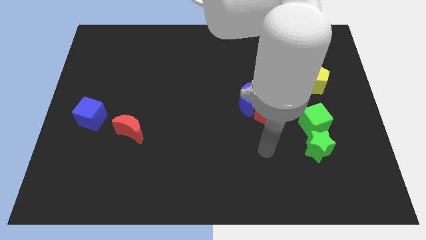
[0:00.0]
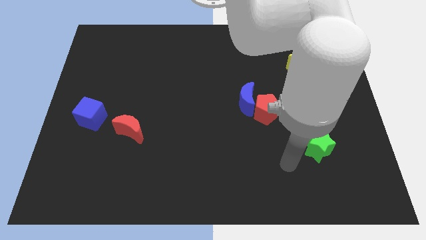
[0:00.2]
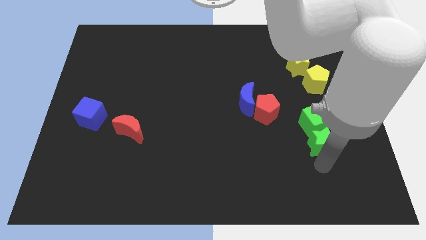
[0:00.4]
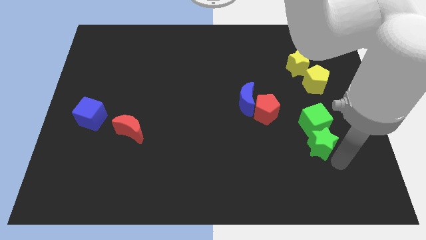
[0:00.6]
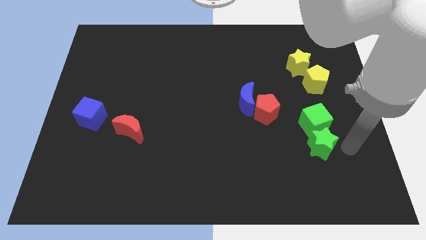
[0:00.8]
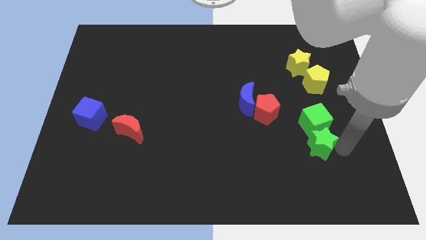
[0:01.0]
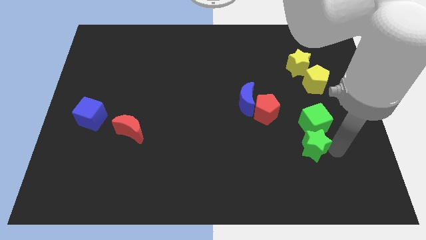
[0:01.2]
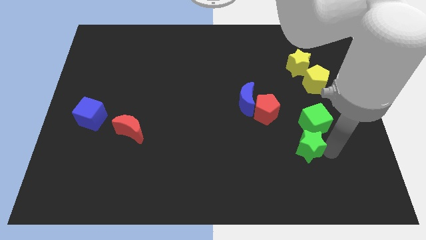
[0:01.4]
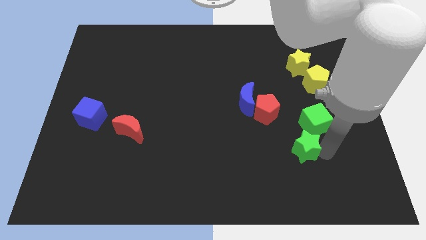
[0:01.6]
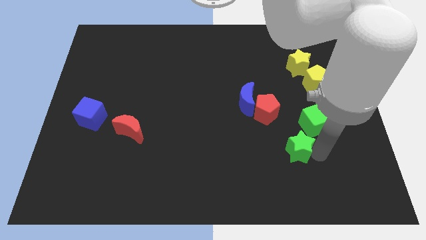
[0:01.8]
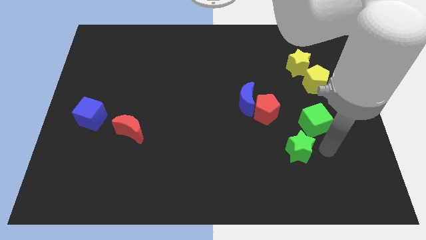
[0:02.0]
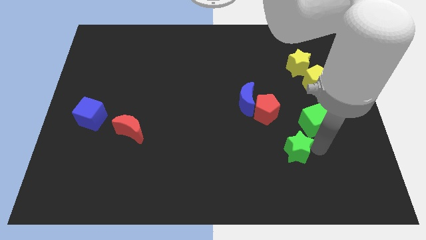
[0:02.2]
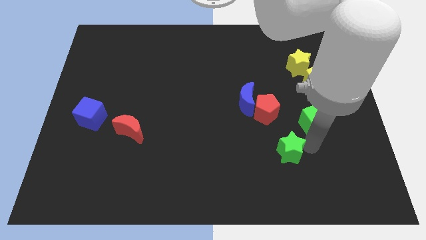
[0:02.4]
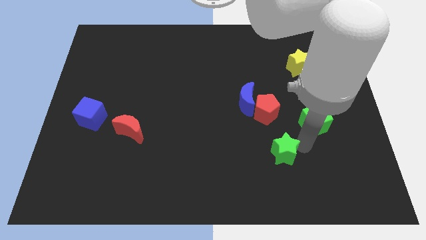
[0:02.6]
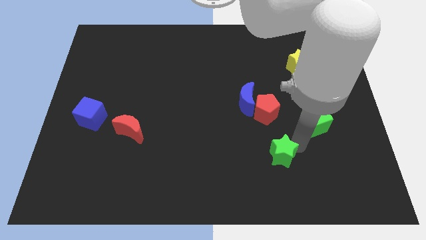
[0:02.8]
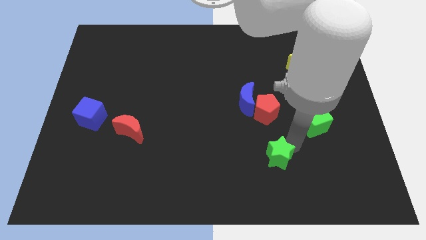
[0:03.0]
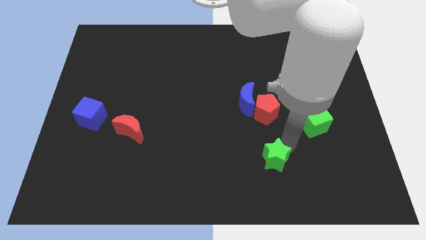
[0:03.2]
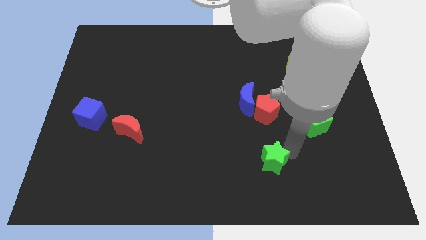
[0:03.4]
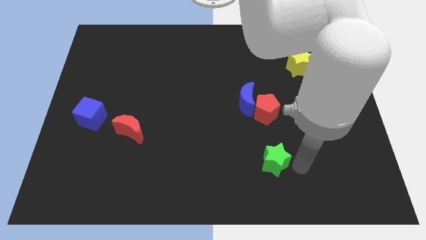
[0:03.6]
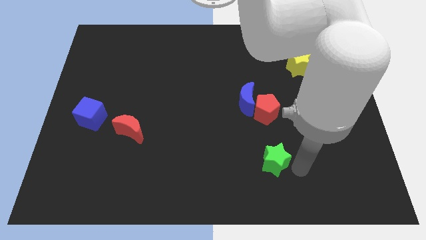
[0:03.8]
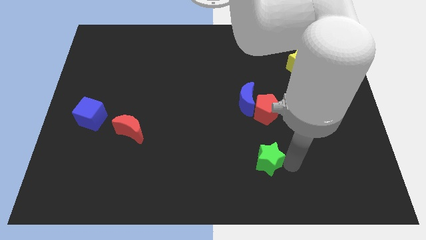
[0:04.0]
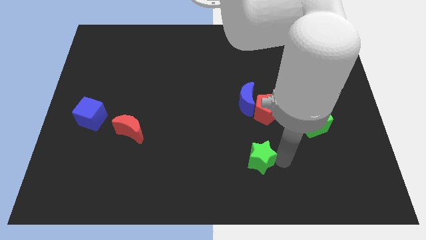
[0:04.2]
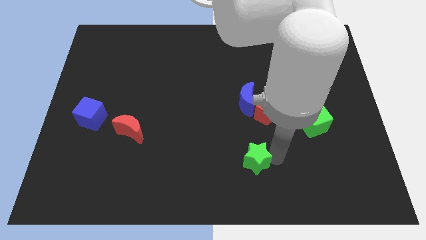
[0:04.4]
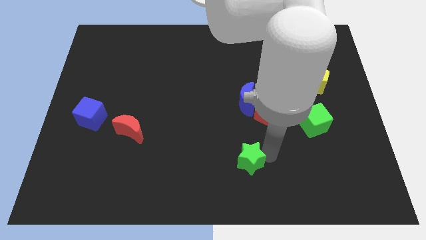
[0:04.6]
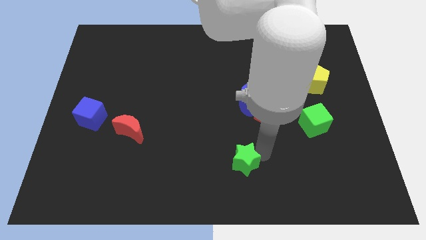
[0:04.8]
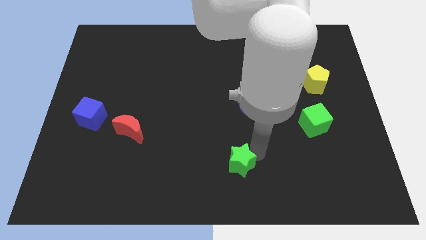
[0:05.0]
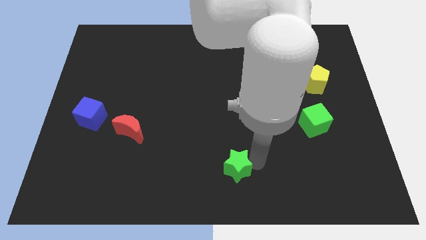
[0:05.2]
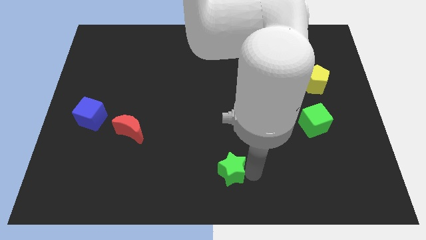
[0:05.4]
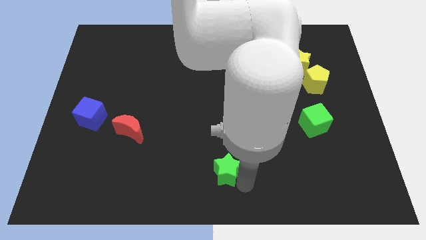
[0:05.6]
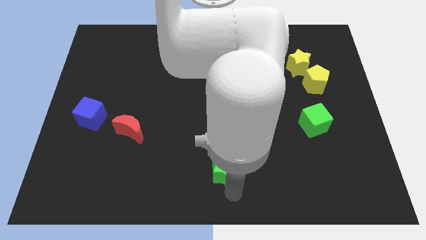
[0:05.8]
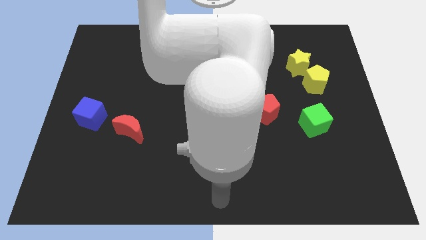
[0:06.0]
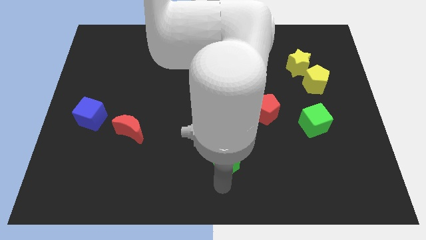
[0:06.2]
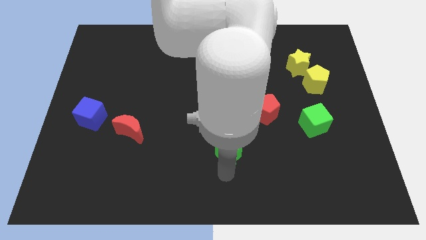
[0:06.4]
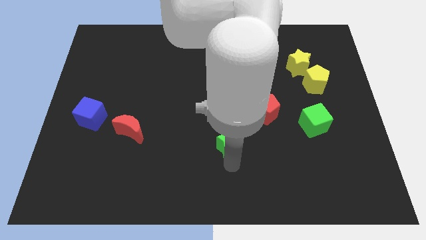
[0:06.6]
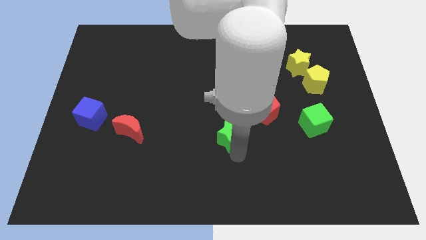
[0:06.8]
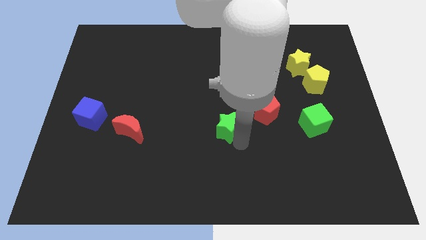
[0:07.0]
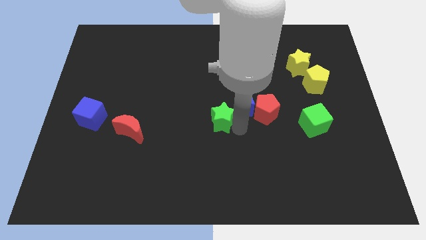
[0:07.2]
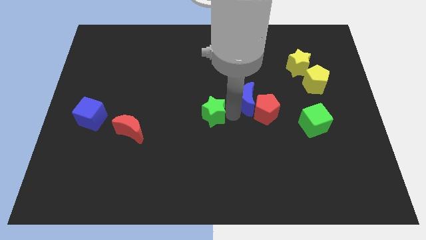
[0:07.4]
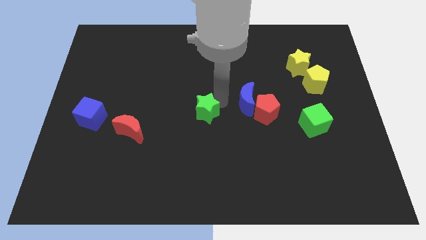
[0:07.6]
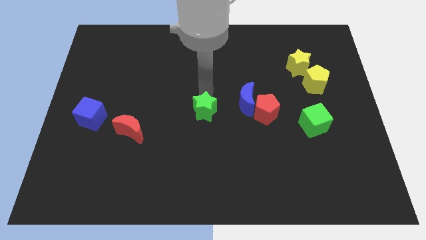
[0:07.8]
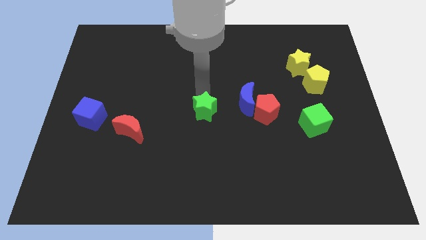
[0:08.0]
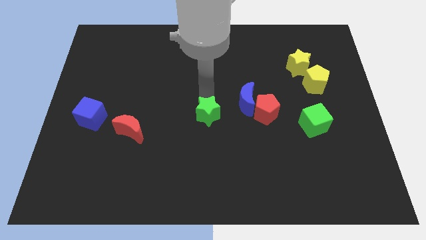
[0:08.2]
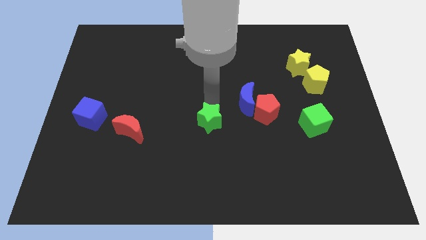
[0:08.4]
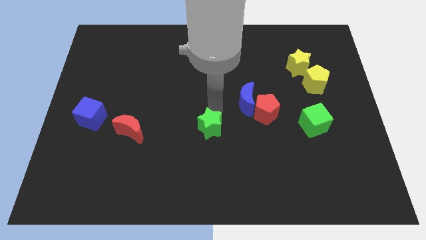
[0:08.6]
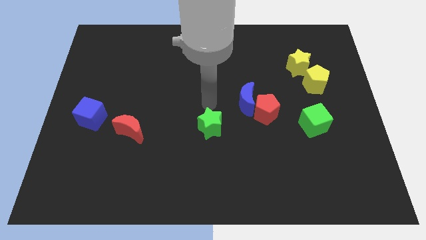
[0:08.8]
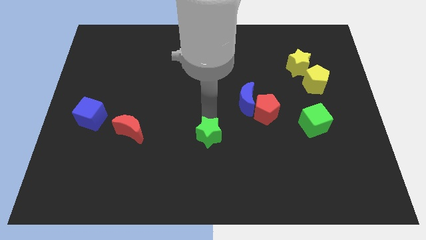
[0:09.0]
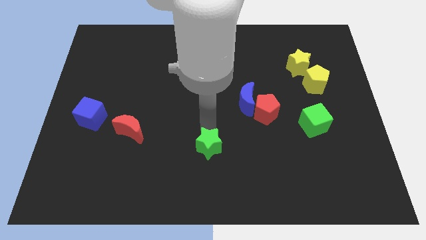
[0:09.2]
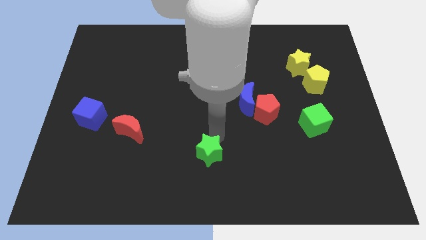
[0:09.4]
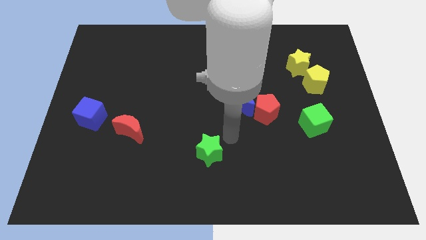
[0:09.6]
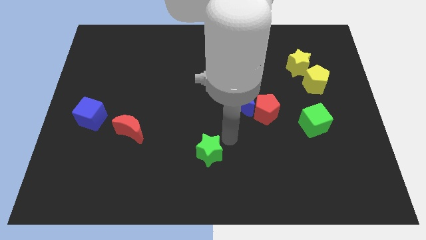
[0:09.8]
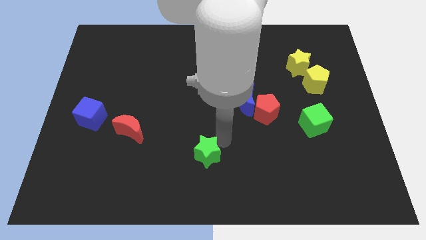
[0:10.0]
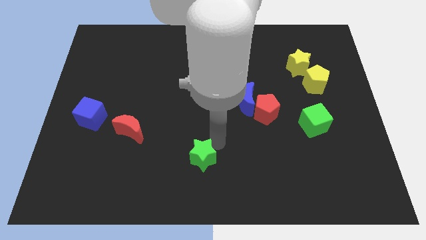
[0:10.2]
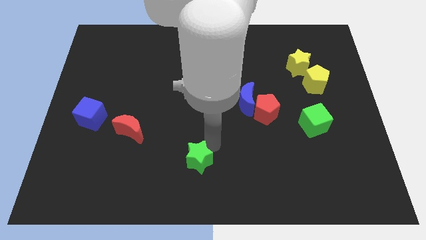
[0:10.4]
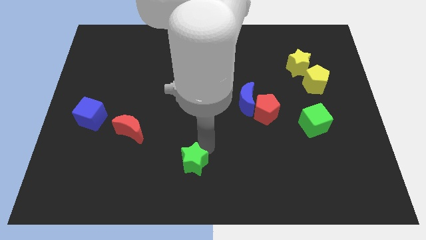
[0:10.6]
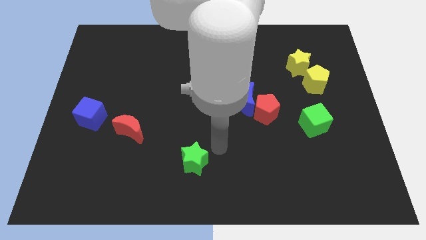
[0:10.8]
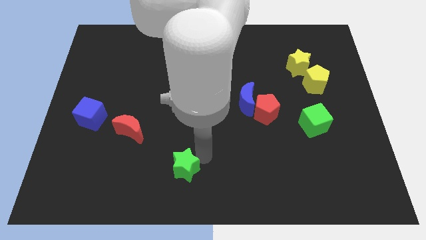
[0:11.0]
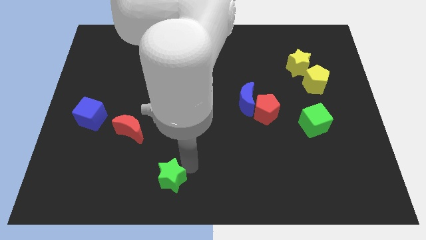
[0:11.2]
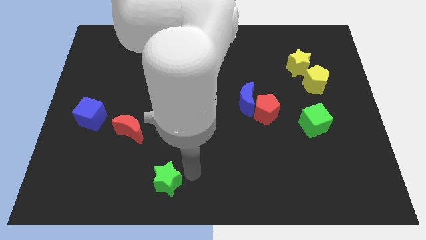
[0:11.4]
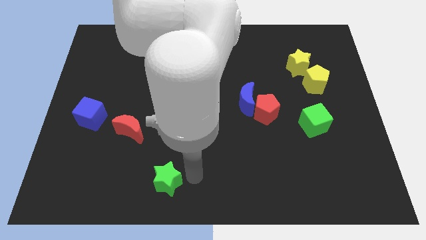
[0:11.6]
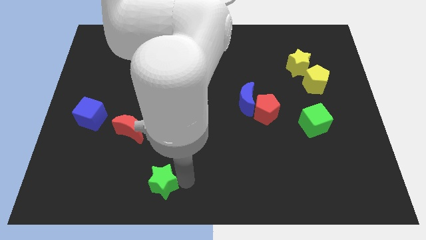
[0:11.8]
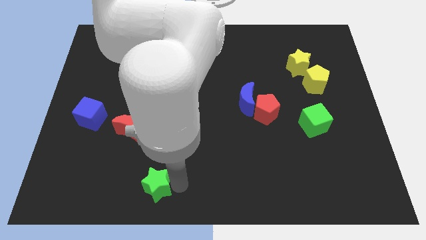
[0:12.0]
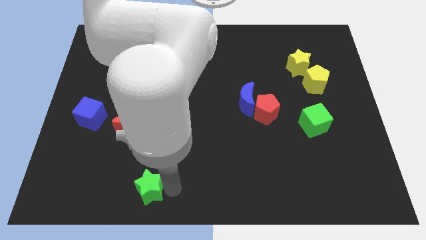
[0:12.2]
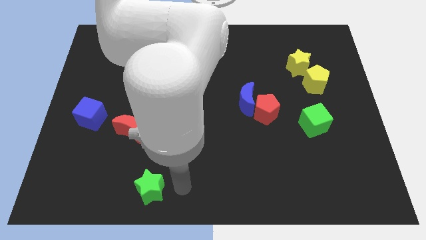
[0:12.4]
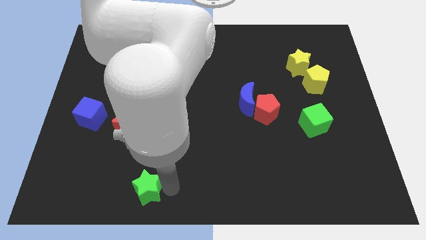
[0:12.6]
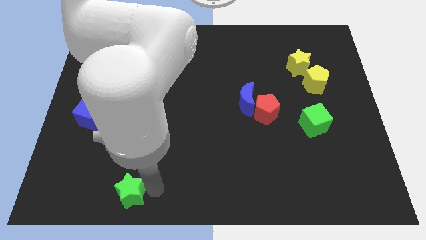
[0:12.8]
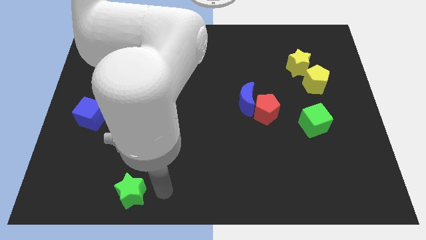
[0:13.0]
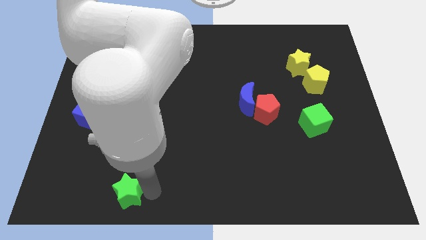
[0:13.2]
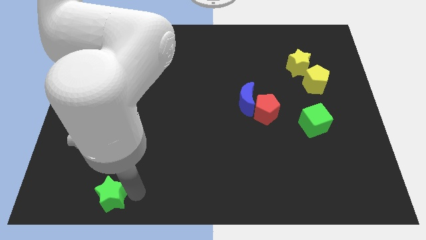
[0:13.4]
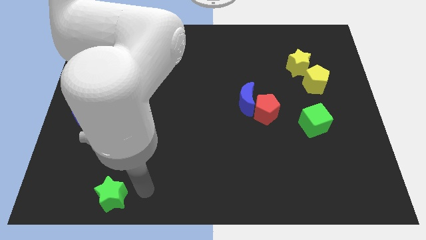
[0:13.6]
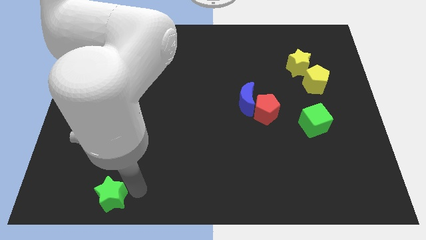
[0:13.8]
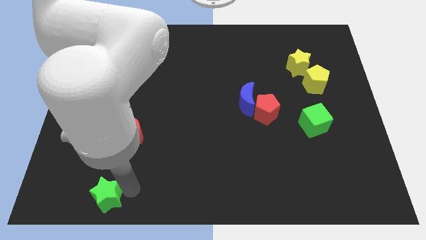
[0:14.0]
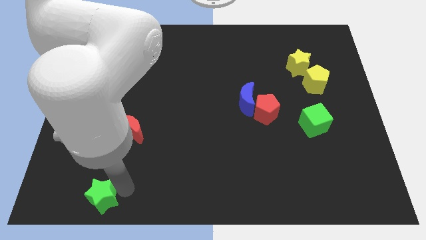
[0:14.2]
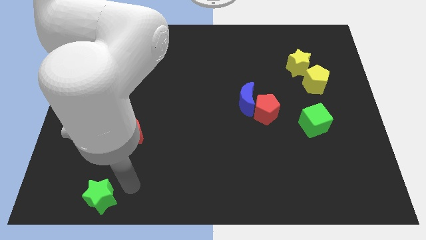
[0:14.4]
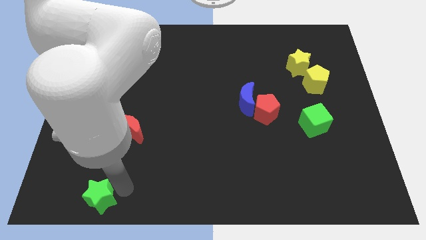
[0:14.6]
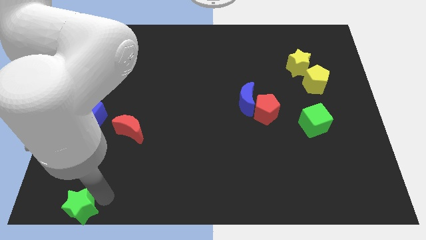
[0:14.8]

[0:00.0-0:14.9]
move the green star to the lower left corner
